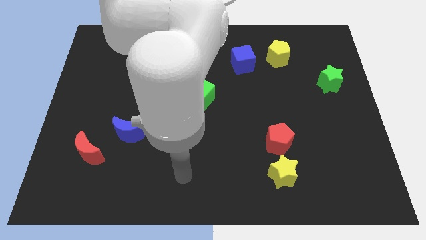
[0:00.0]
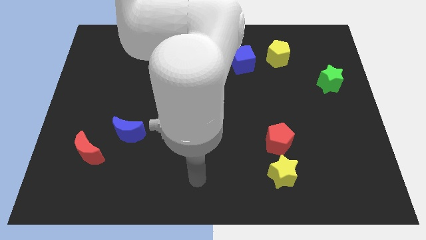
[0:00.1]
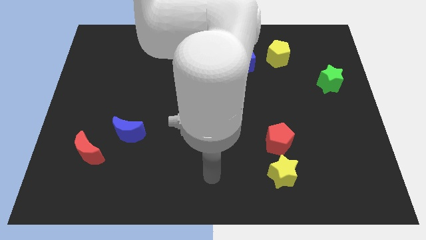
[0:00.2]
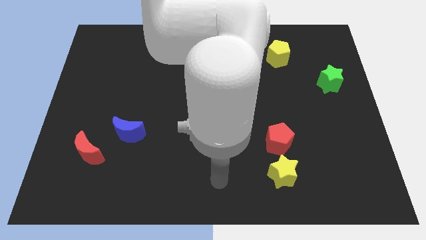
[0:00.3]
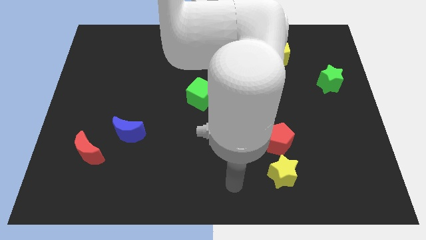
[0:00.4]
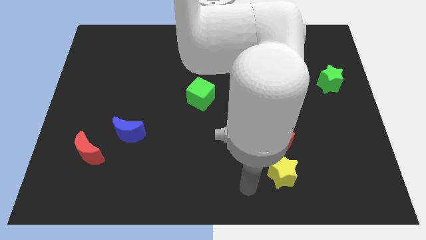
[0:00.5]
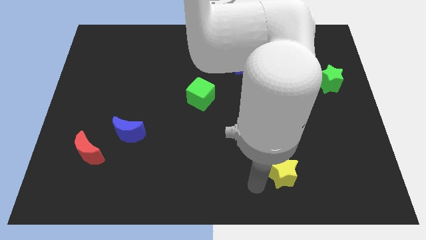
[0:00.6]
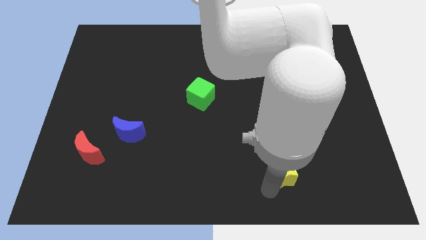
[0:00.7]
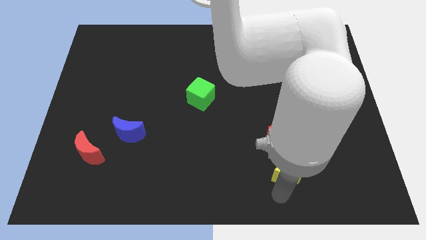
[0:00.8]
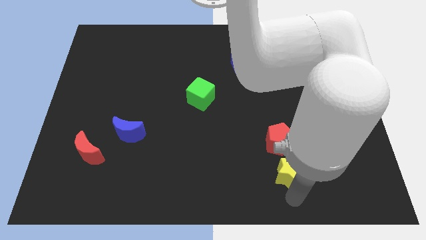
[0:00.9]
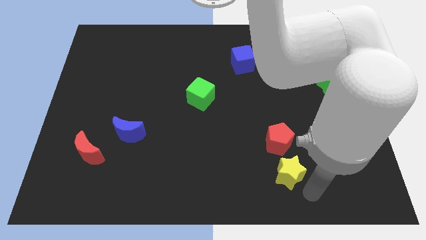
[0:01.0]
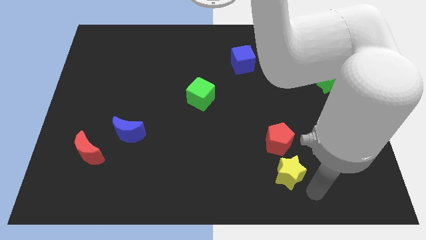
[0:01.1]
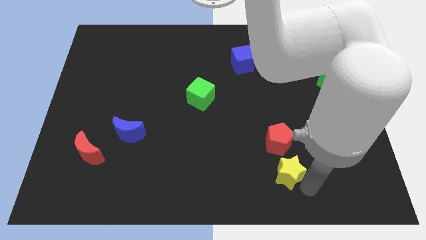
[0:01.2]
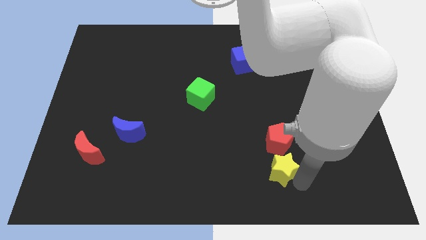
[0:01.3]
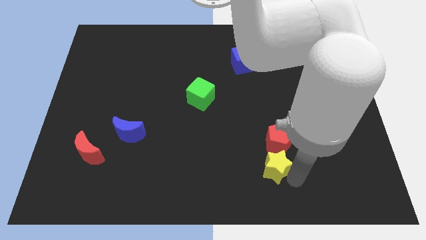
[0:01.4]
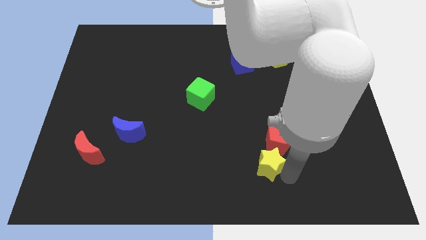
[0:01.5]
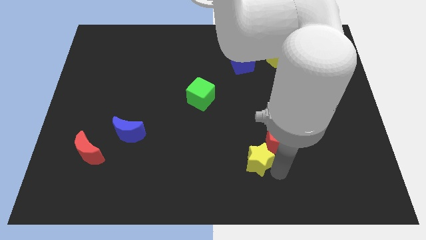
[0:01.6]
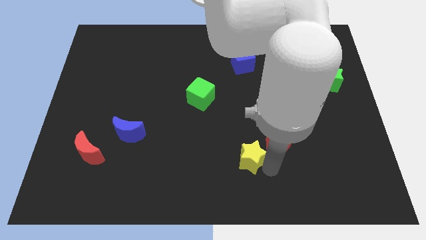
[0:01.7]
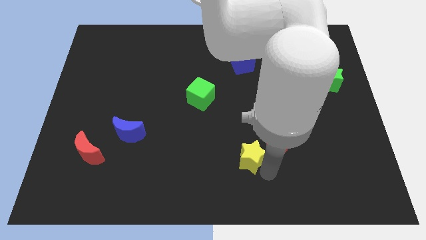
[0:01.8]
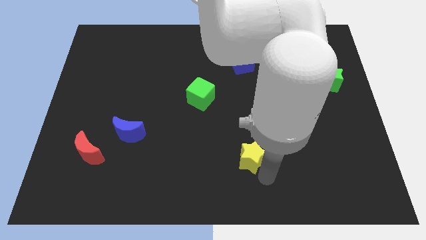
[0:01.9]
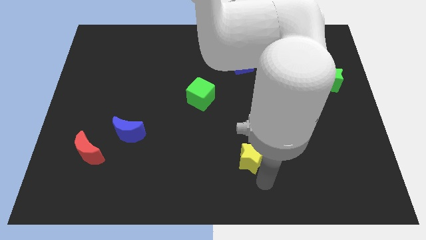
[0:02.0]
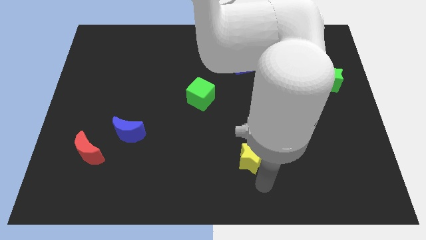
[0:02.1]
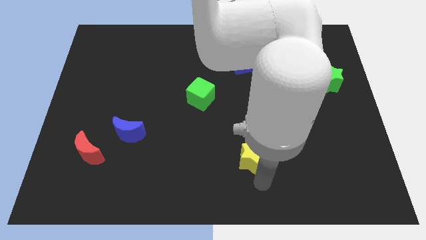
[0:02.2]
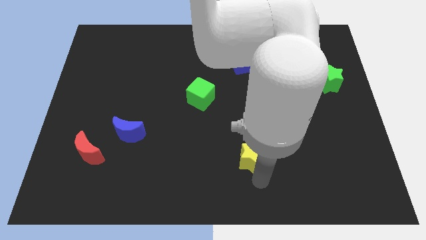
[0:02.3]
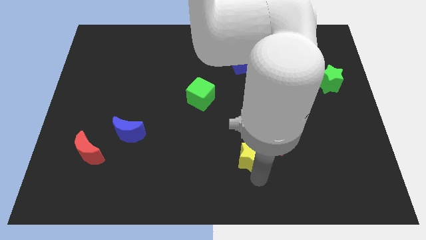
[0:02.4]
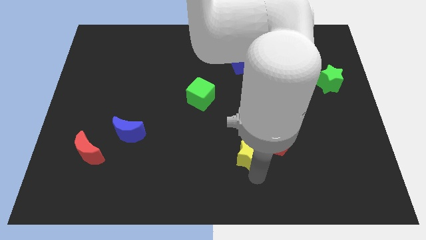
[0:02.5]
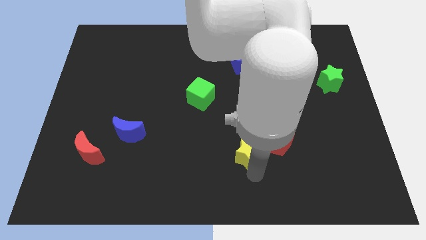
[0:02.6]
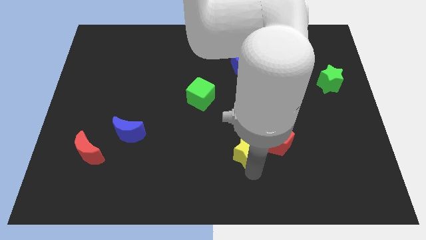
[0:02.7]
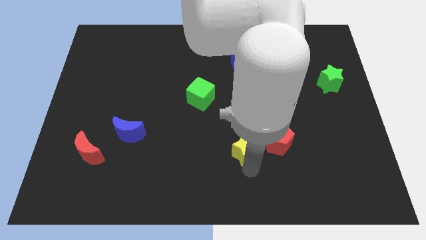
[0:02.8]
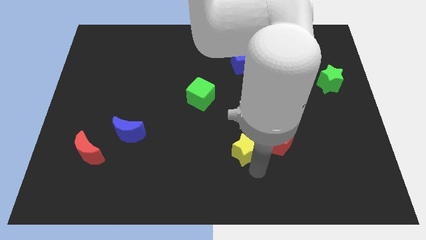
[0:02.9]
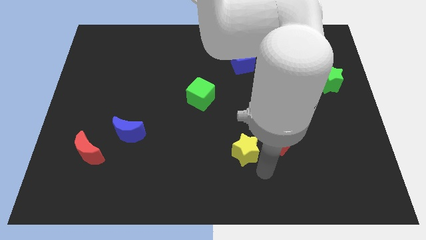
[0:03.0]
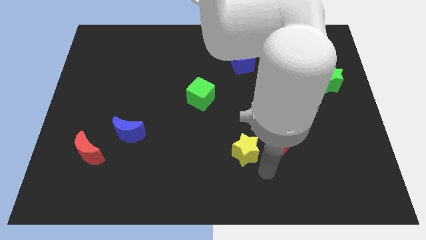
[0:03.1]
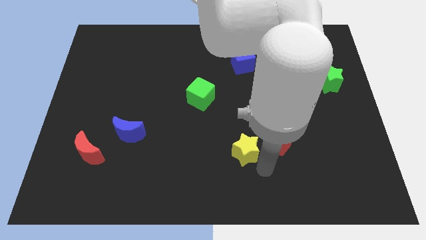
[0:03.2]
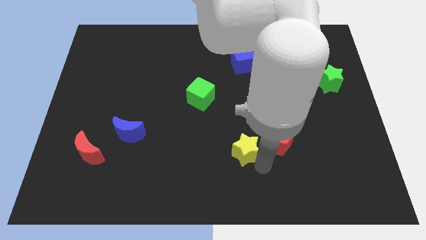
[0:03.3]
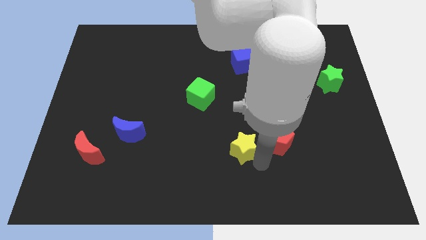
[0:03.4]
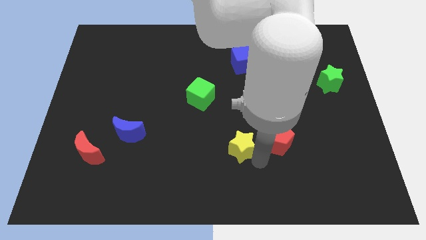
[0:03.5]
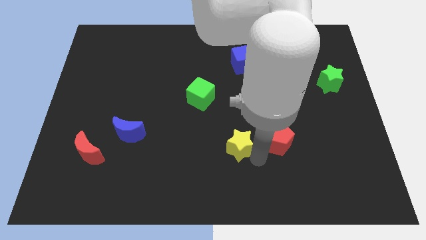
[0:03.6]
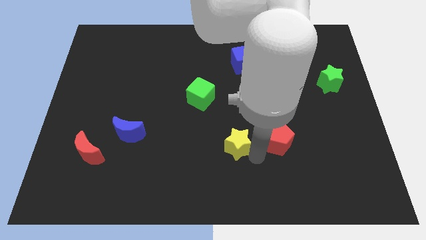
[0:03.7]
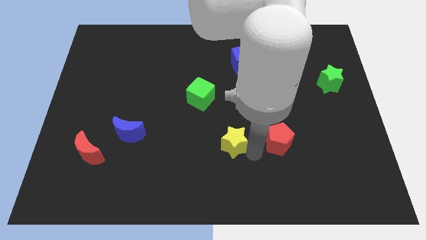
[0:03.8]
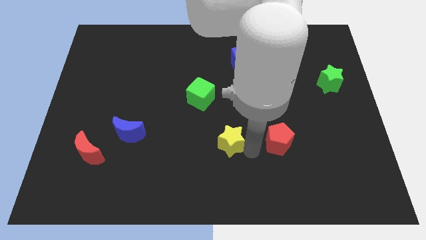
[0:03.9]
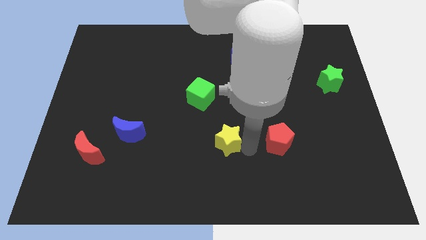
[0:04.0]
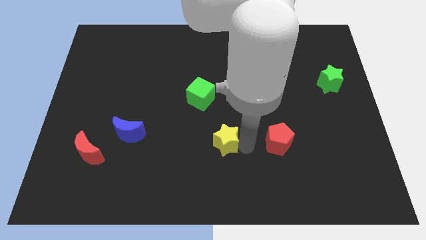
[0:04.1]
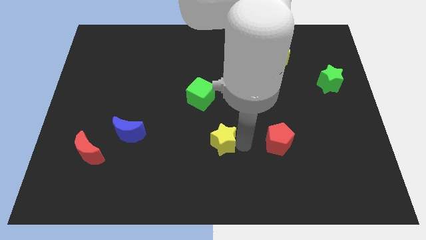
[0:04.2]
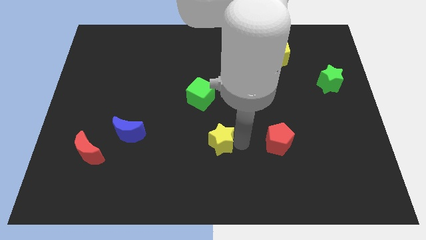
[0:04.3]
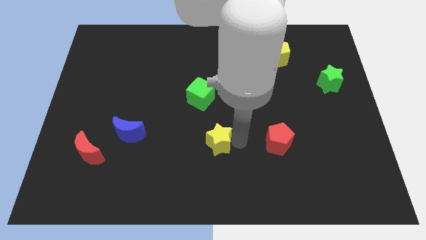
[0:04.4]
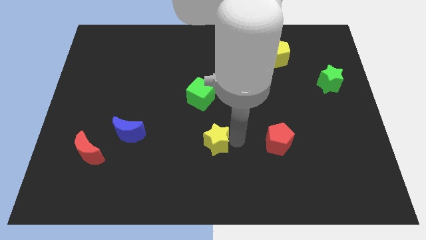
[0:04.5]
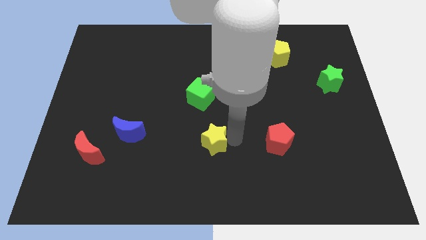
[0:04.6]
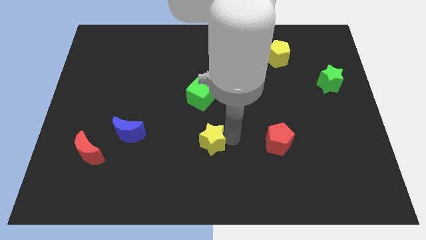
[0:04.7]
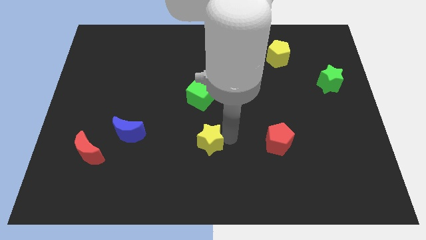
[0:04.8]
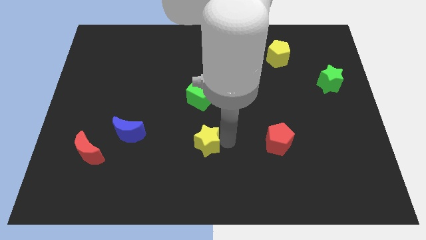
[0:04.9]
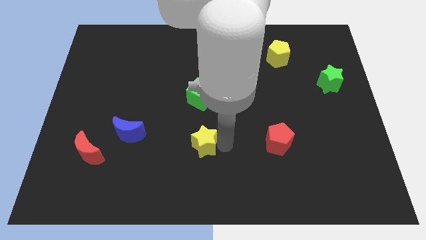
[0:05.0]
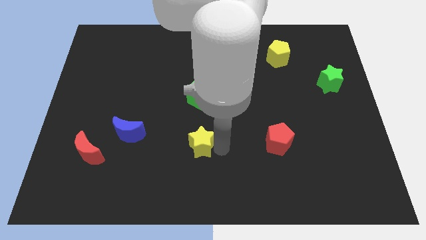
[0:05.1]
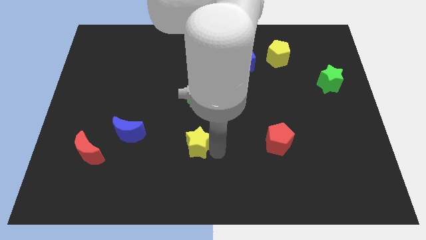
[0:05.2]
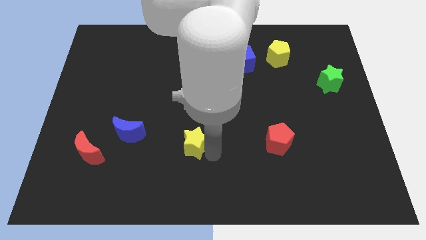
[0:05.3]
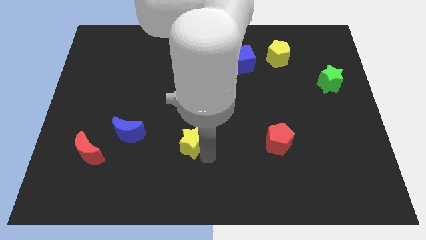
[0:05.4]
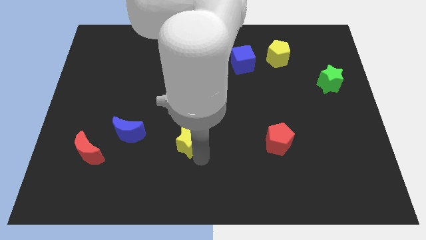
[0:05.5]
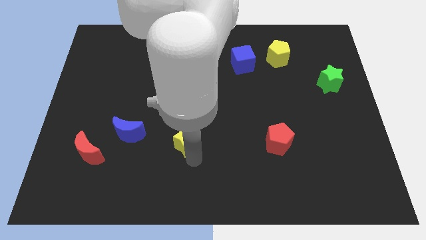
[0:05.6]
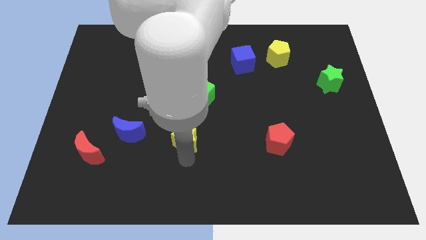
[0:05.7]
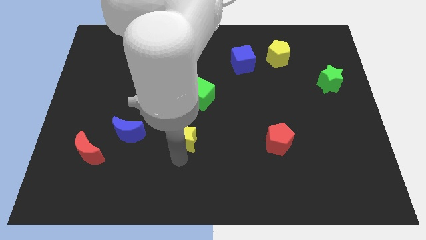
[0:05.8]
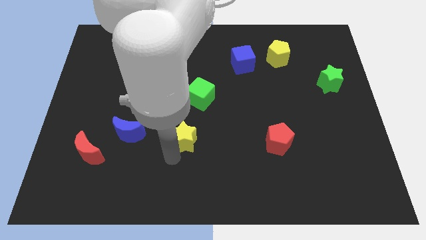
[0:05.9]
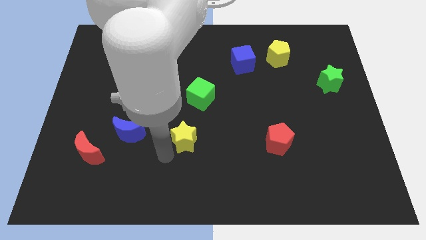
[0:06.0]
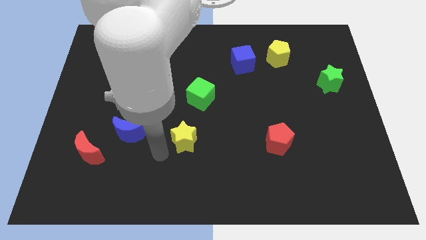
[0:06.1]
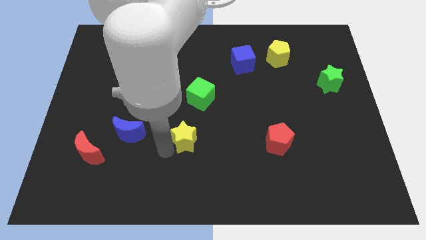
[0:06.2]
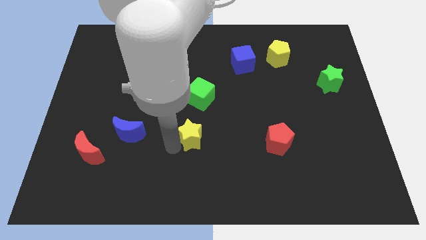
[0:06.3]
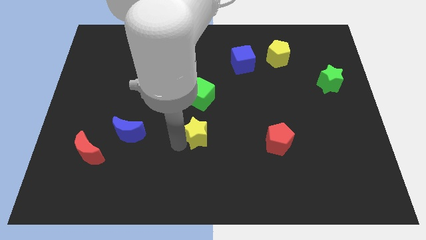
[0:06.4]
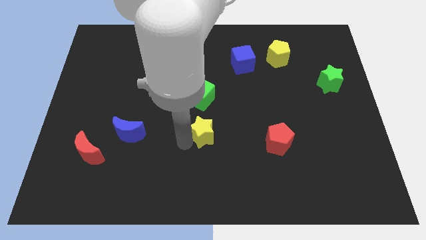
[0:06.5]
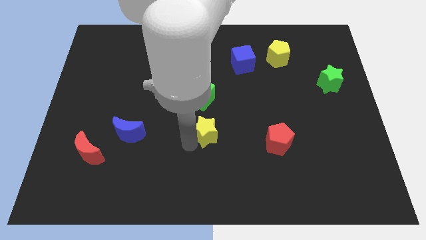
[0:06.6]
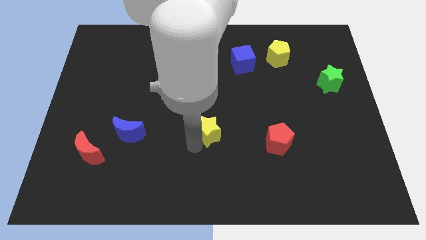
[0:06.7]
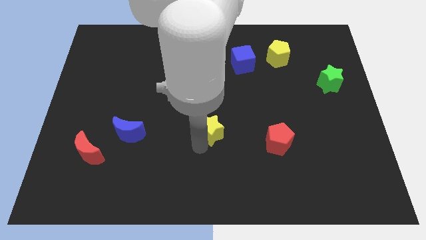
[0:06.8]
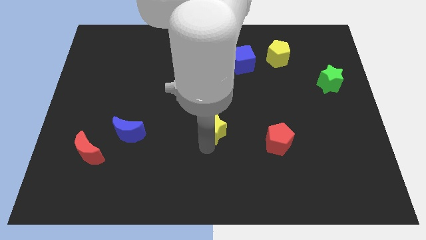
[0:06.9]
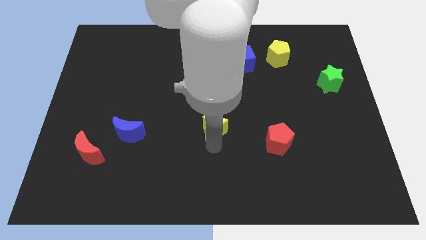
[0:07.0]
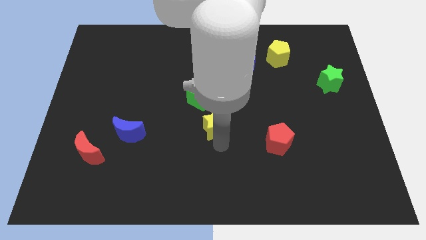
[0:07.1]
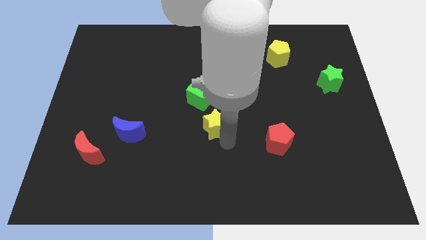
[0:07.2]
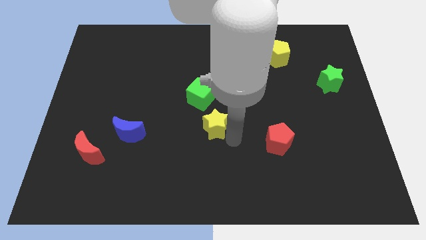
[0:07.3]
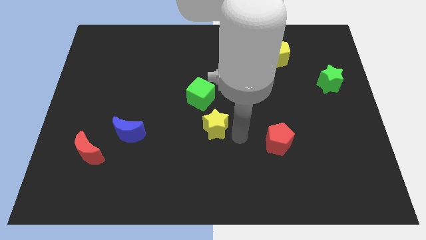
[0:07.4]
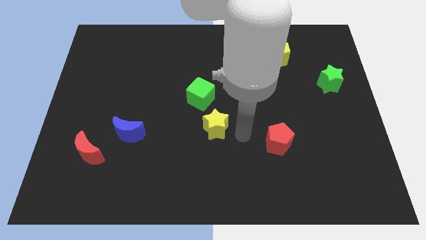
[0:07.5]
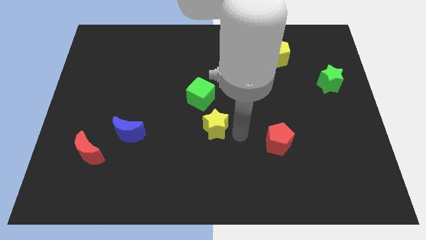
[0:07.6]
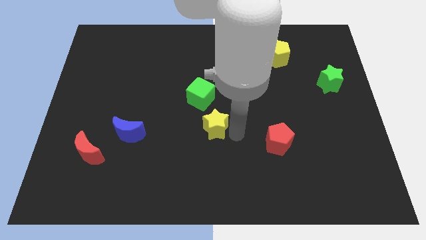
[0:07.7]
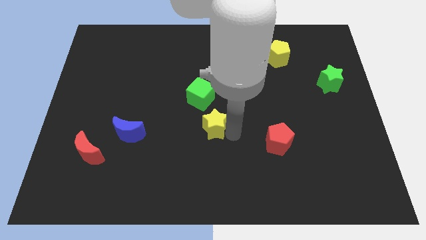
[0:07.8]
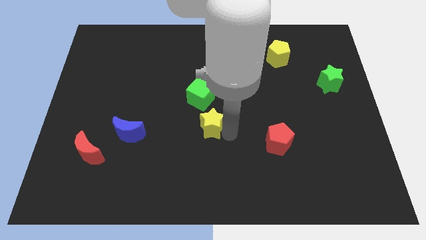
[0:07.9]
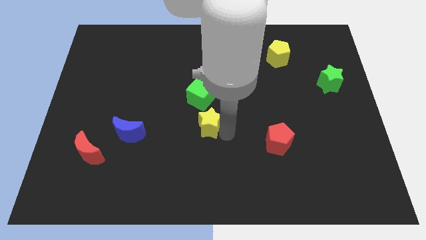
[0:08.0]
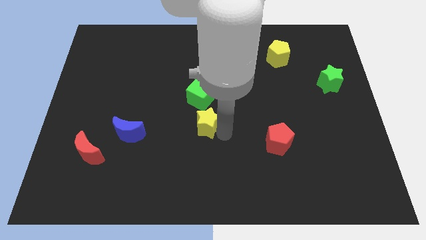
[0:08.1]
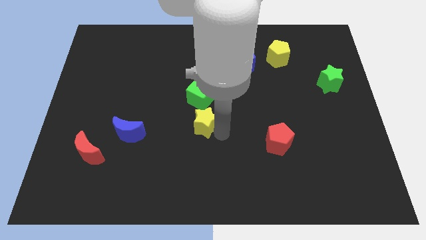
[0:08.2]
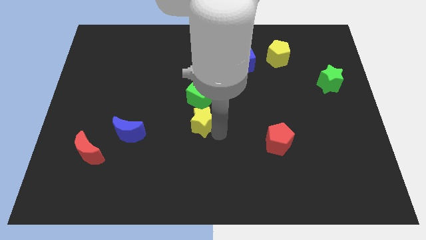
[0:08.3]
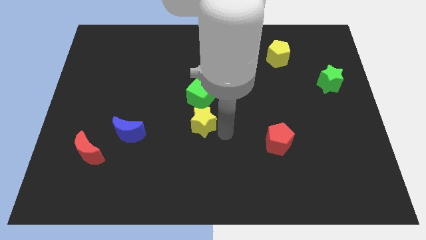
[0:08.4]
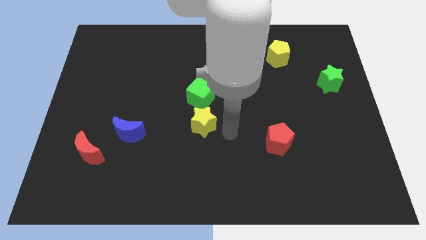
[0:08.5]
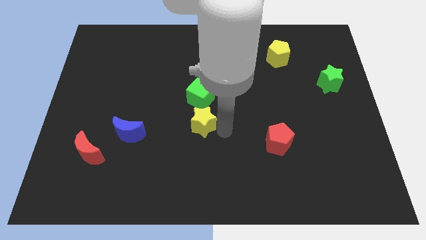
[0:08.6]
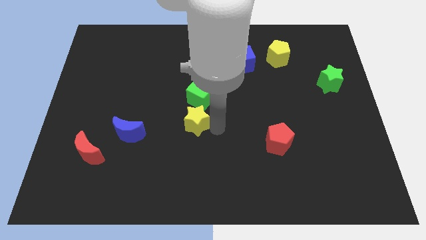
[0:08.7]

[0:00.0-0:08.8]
push the yellow star to the bottom left side of the green cube
